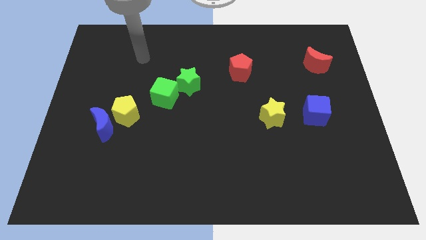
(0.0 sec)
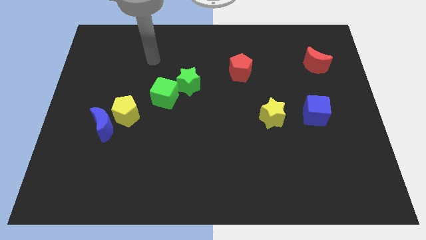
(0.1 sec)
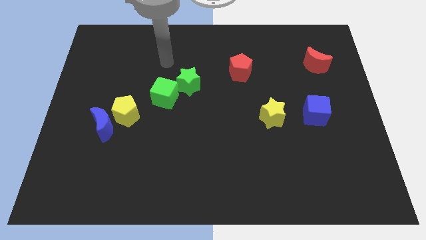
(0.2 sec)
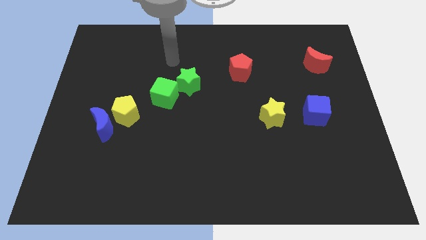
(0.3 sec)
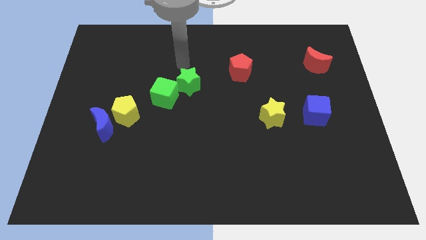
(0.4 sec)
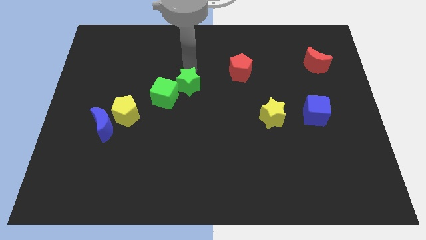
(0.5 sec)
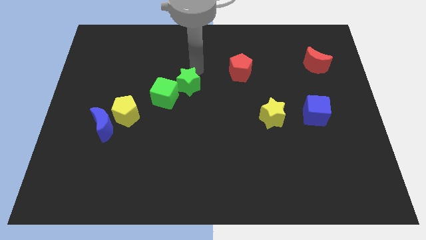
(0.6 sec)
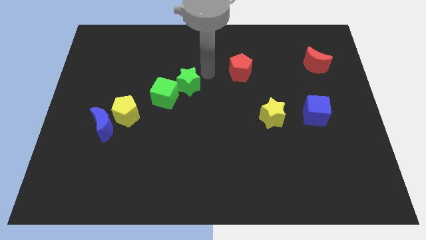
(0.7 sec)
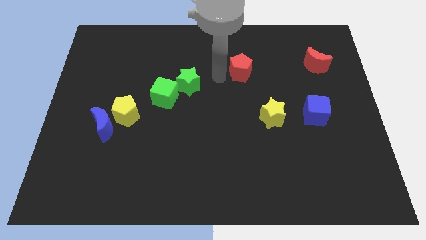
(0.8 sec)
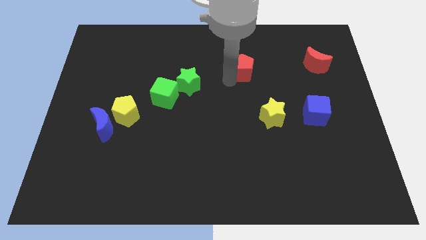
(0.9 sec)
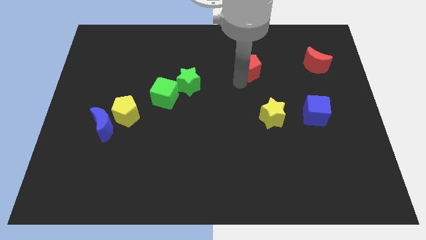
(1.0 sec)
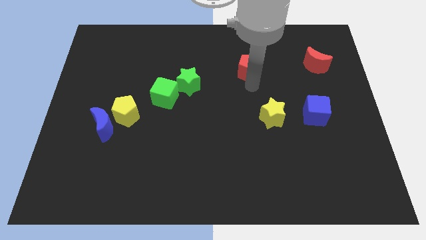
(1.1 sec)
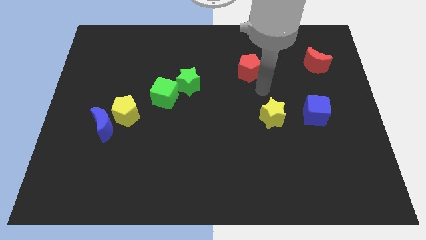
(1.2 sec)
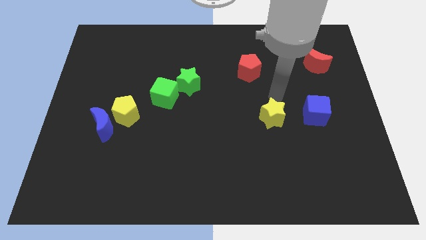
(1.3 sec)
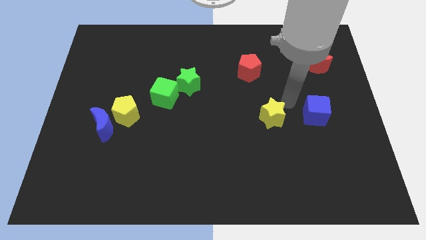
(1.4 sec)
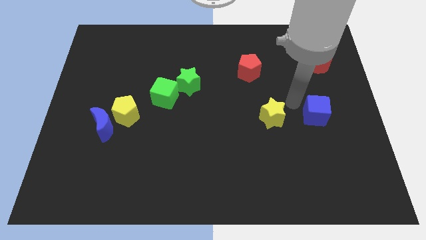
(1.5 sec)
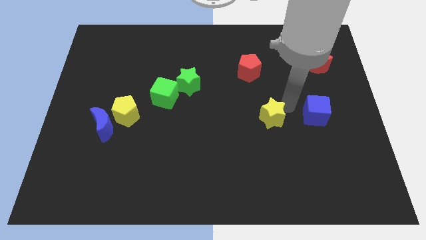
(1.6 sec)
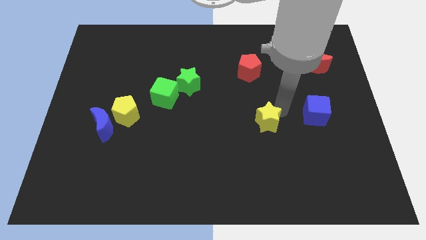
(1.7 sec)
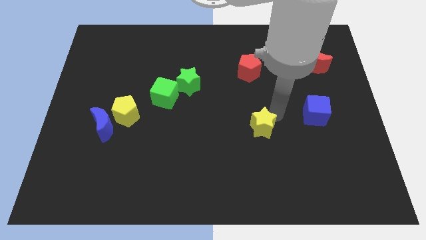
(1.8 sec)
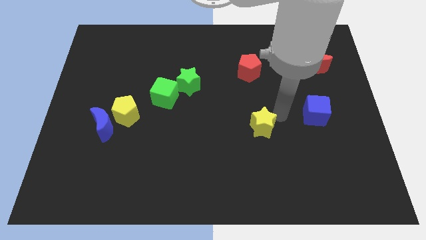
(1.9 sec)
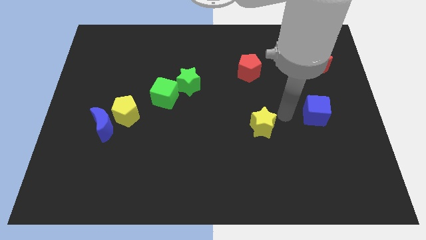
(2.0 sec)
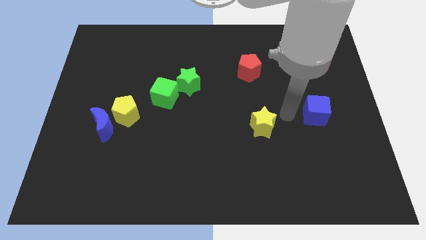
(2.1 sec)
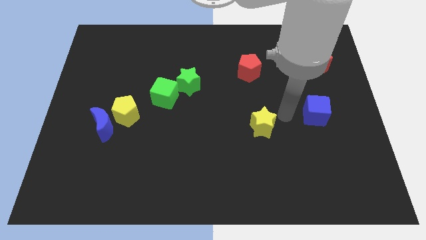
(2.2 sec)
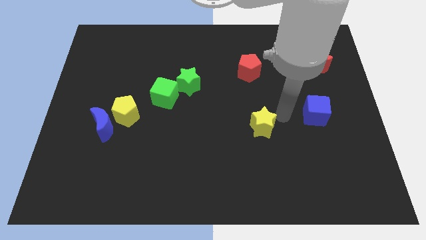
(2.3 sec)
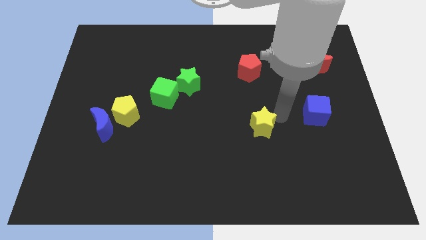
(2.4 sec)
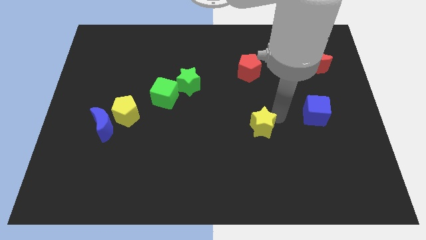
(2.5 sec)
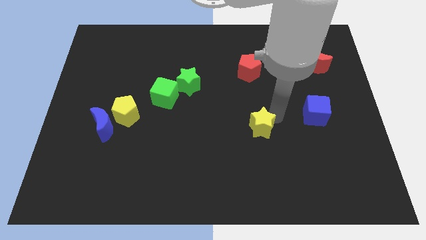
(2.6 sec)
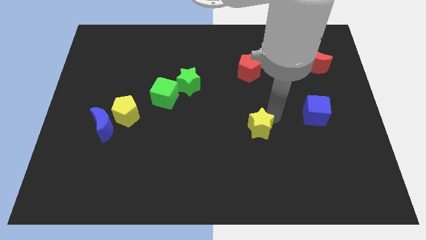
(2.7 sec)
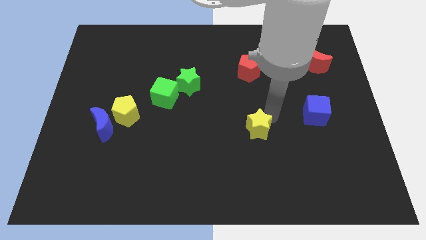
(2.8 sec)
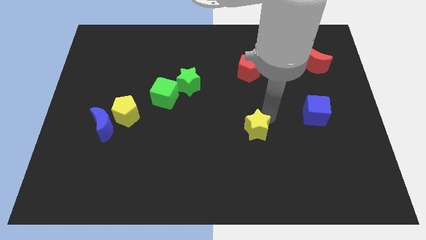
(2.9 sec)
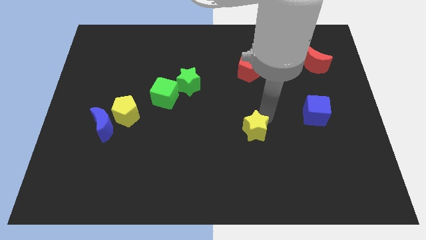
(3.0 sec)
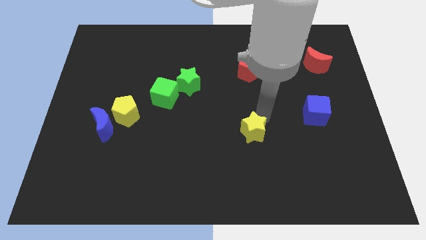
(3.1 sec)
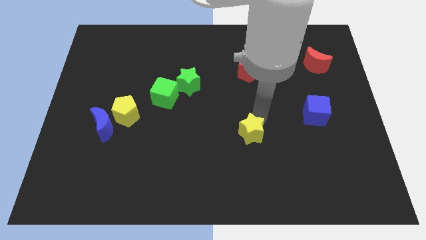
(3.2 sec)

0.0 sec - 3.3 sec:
push the yellow star a little diagonally down and left

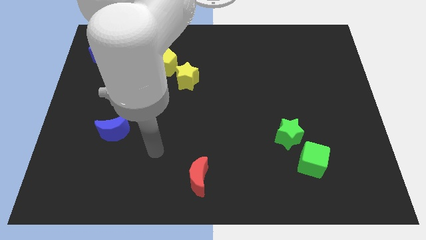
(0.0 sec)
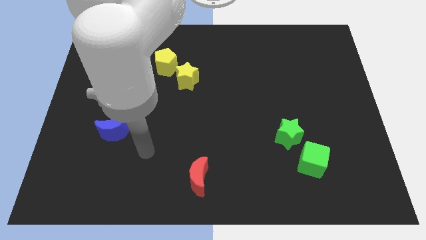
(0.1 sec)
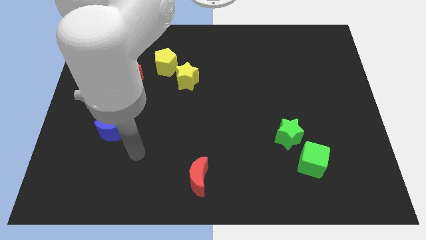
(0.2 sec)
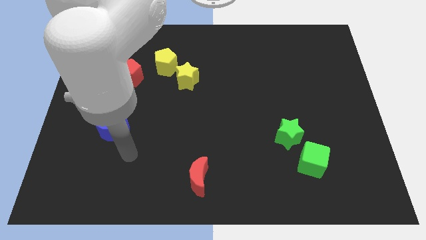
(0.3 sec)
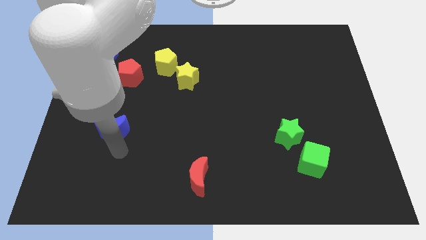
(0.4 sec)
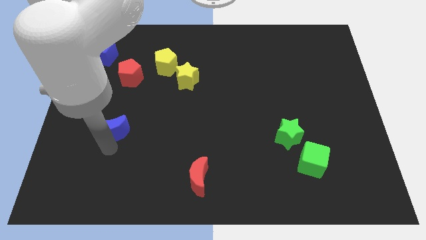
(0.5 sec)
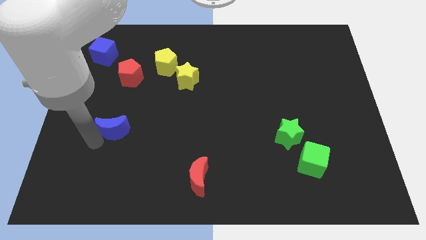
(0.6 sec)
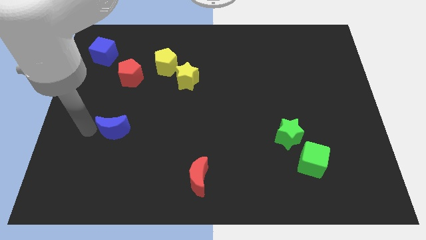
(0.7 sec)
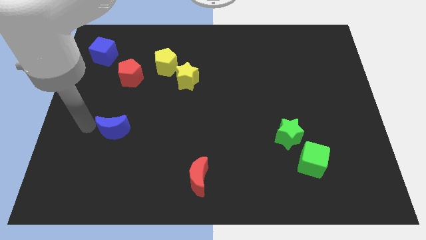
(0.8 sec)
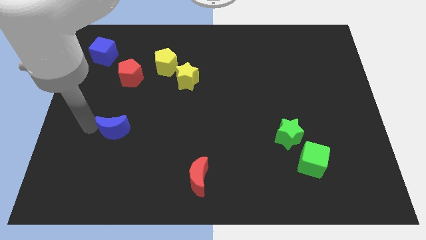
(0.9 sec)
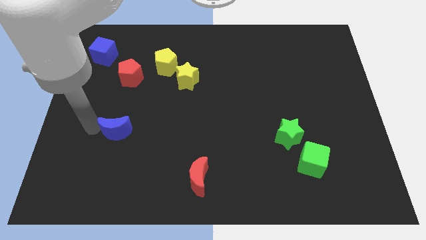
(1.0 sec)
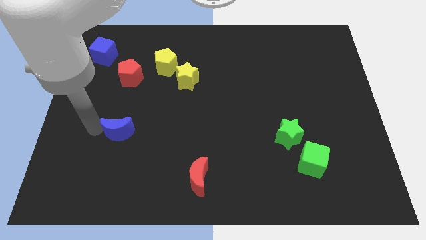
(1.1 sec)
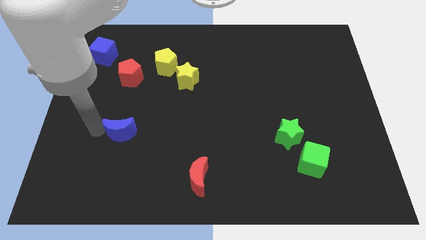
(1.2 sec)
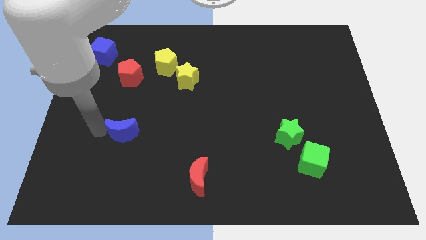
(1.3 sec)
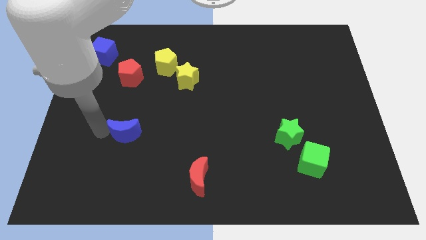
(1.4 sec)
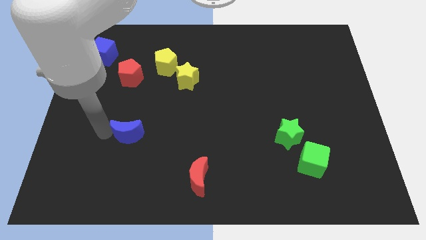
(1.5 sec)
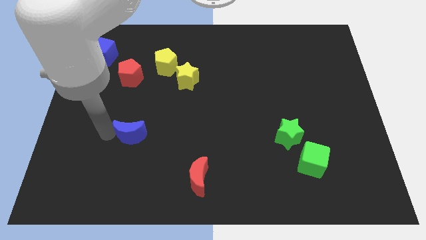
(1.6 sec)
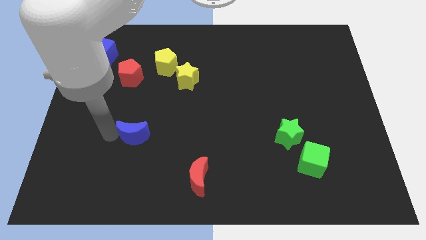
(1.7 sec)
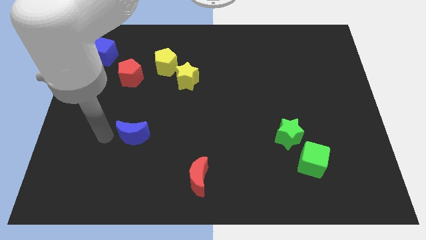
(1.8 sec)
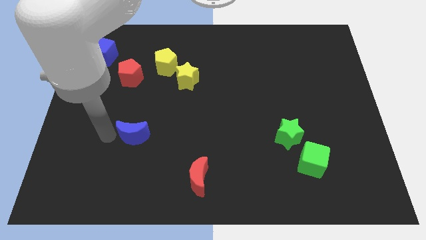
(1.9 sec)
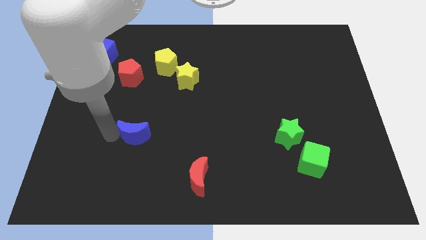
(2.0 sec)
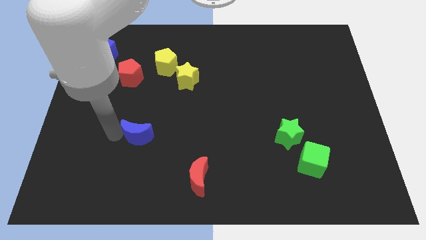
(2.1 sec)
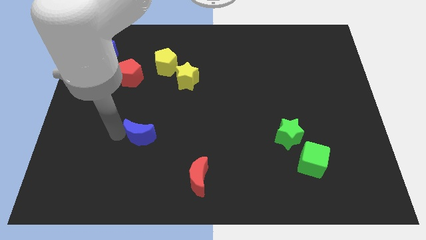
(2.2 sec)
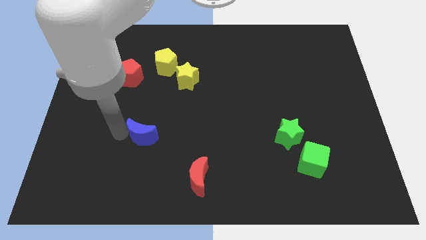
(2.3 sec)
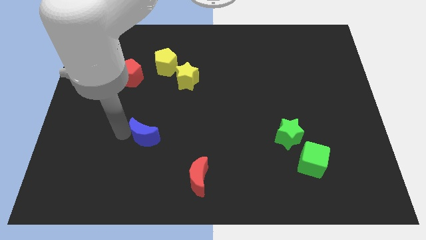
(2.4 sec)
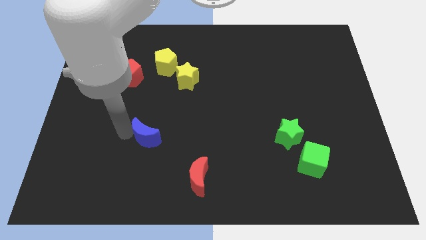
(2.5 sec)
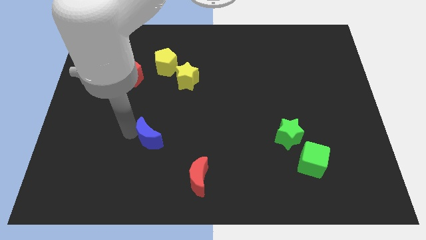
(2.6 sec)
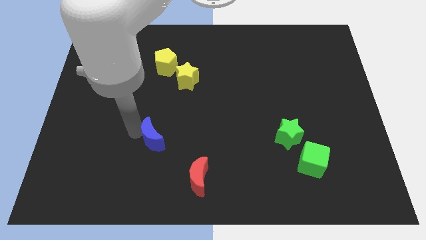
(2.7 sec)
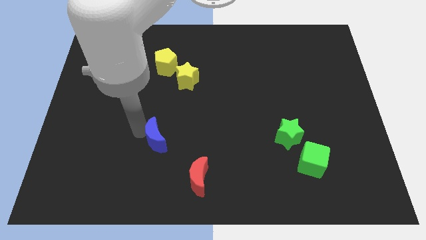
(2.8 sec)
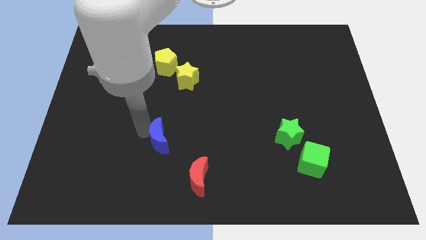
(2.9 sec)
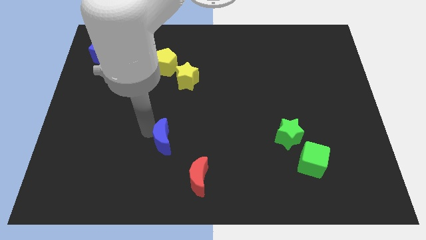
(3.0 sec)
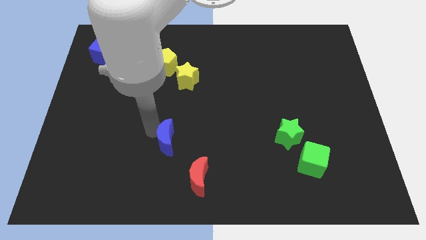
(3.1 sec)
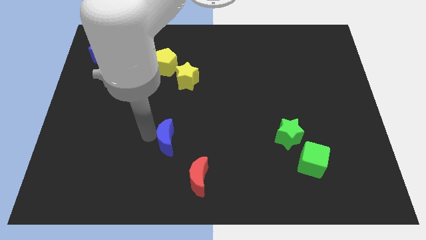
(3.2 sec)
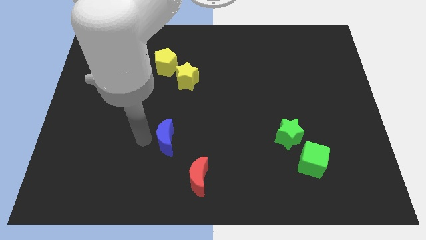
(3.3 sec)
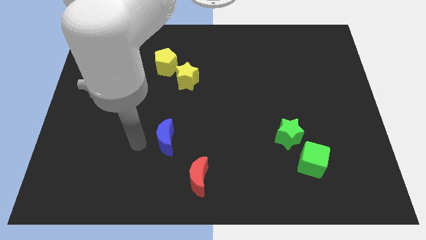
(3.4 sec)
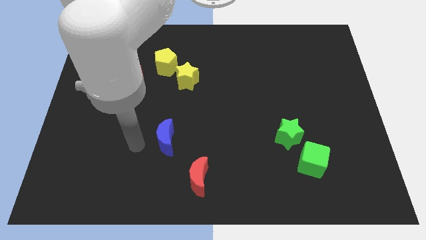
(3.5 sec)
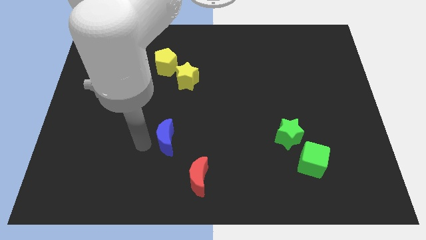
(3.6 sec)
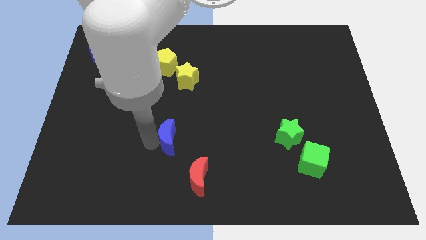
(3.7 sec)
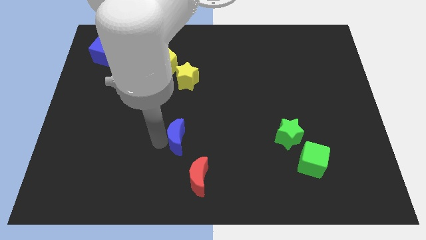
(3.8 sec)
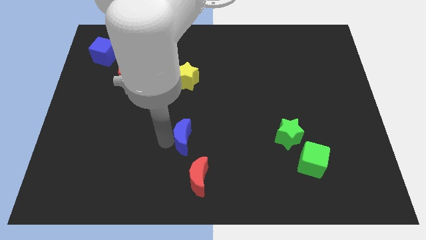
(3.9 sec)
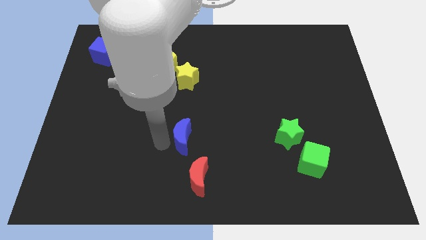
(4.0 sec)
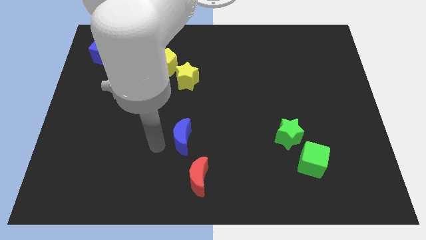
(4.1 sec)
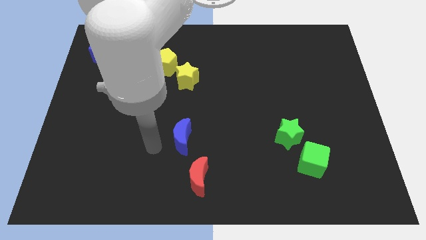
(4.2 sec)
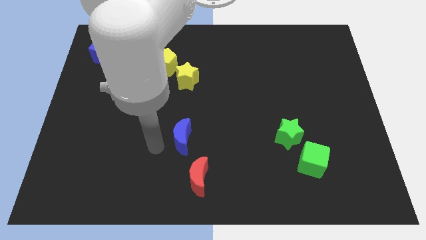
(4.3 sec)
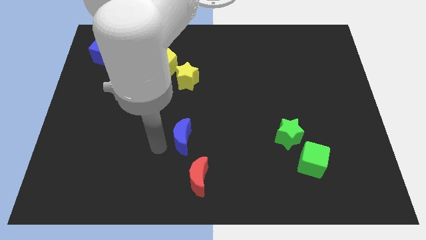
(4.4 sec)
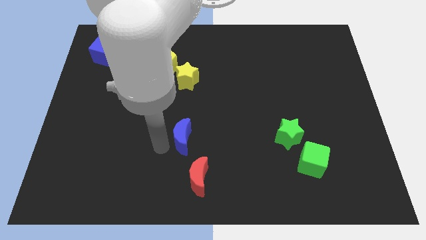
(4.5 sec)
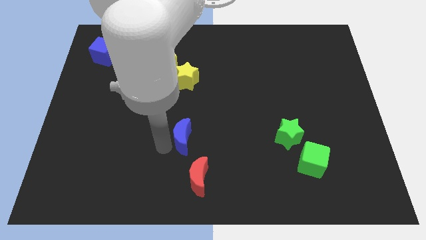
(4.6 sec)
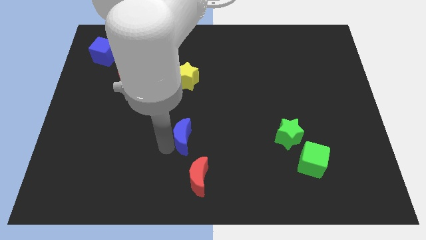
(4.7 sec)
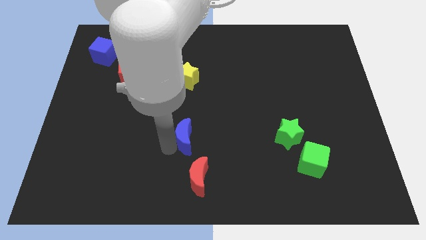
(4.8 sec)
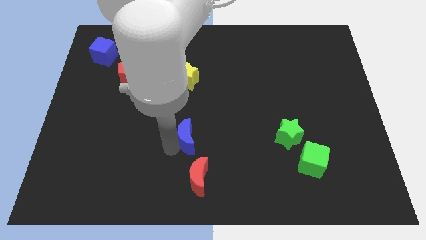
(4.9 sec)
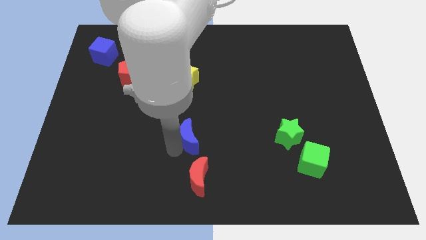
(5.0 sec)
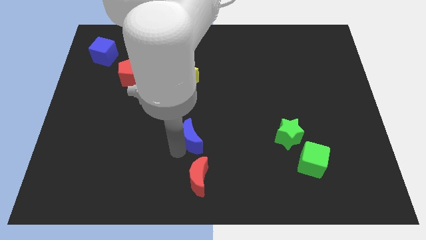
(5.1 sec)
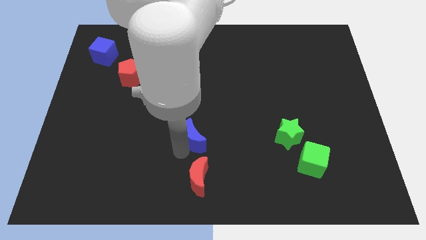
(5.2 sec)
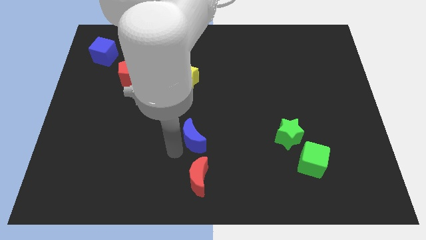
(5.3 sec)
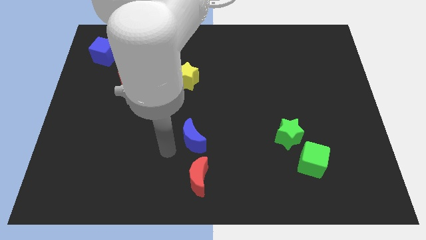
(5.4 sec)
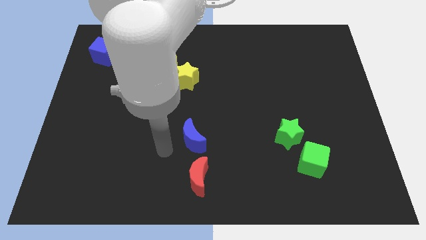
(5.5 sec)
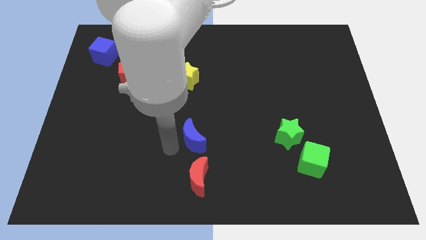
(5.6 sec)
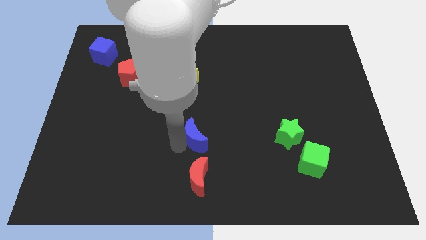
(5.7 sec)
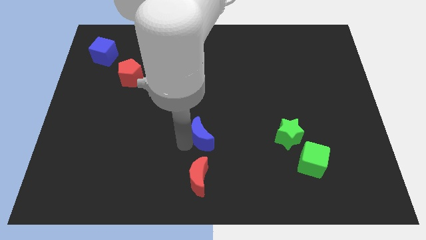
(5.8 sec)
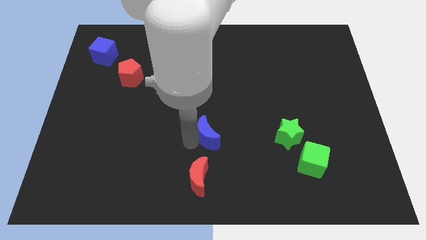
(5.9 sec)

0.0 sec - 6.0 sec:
slide the blue moon right
